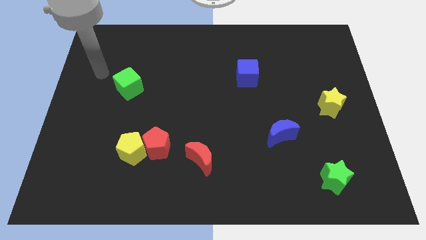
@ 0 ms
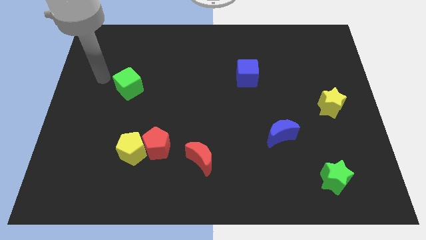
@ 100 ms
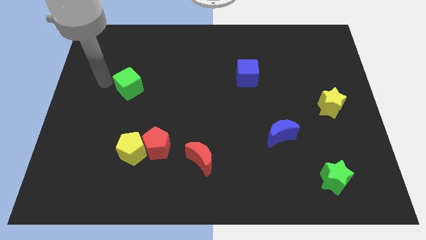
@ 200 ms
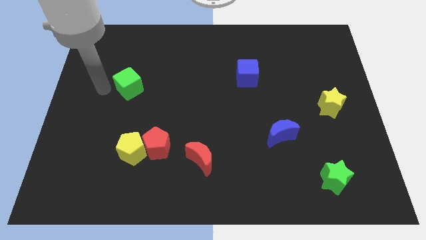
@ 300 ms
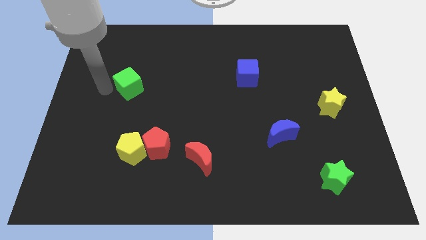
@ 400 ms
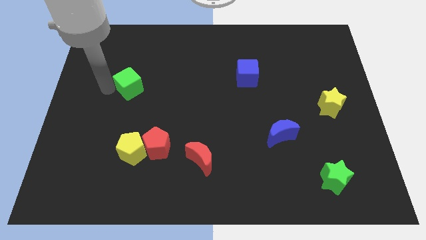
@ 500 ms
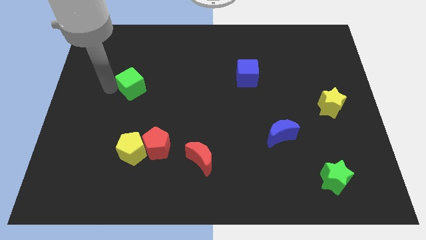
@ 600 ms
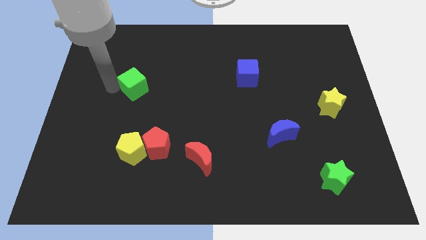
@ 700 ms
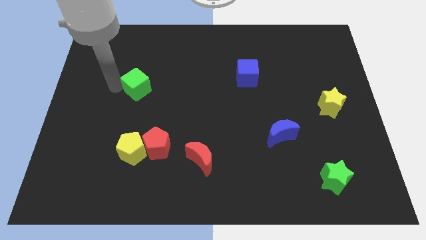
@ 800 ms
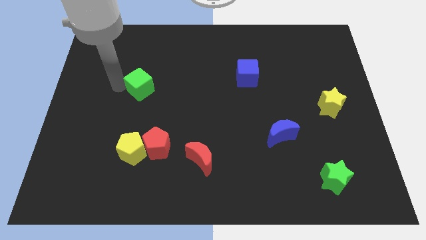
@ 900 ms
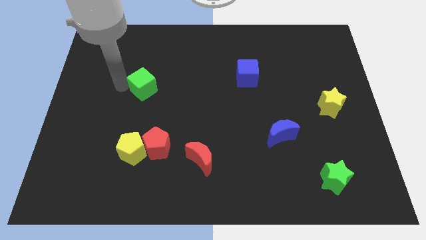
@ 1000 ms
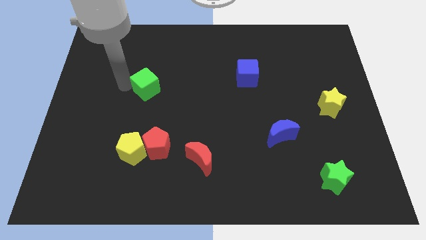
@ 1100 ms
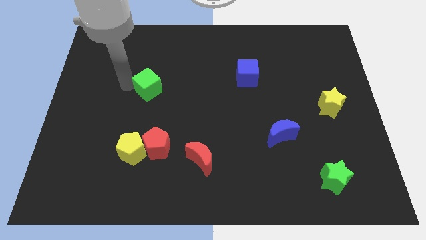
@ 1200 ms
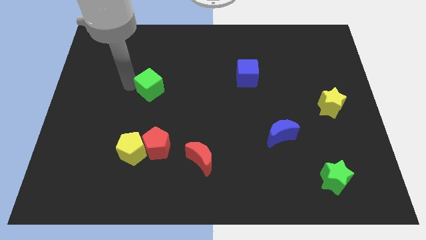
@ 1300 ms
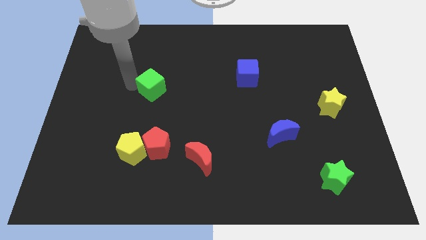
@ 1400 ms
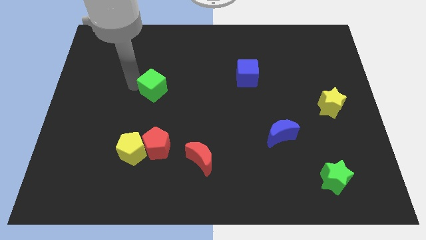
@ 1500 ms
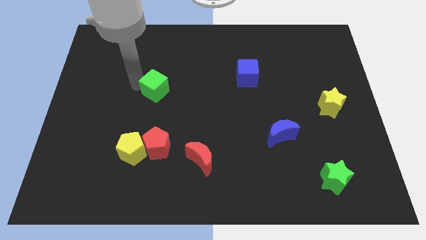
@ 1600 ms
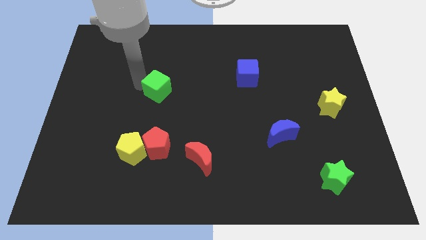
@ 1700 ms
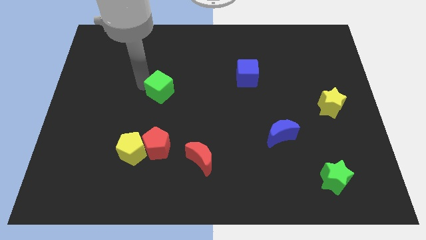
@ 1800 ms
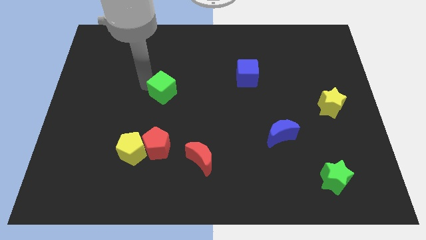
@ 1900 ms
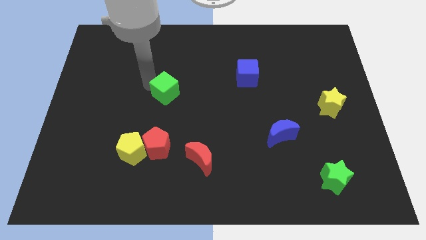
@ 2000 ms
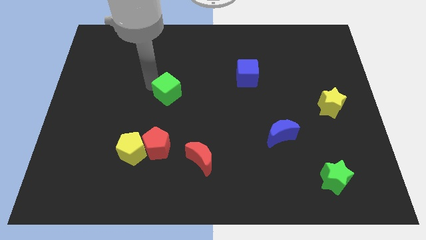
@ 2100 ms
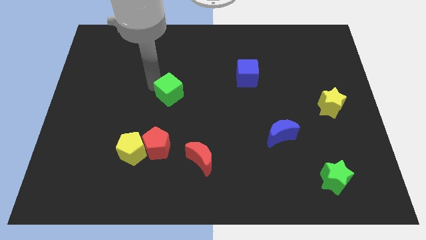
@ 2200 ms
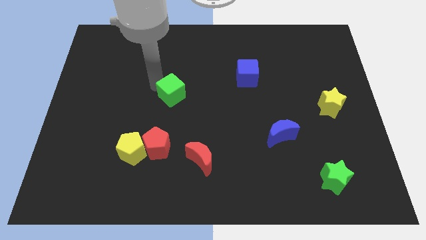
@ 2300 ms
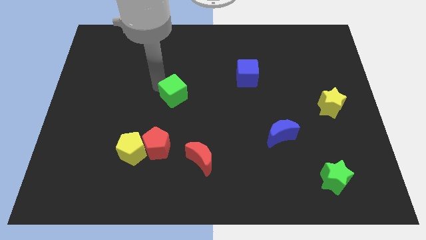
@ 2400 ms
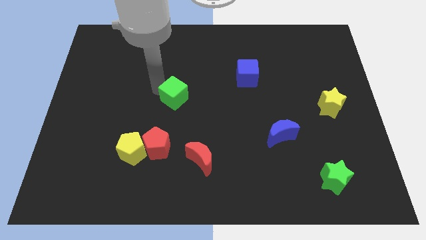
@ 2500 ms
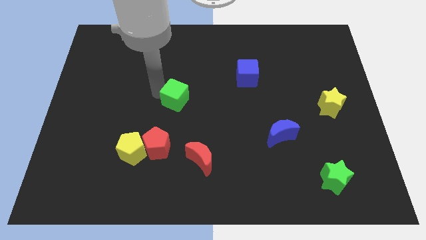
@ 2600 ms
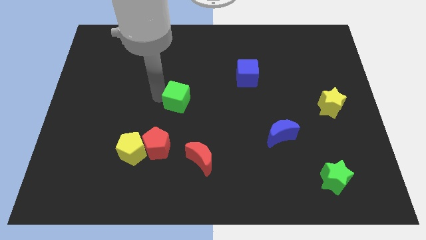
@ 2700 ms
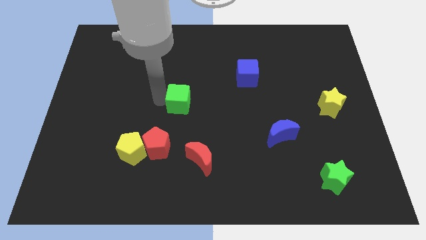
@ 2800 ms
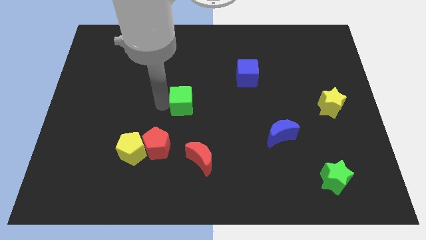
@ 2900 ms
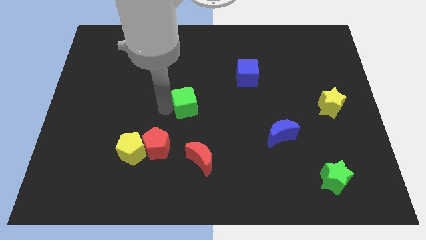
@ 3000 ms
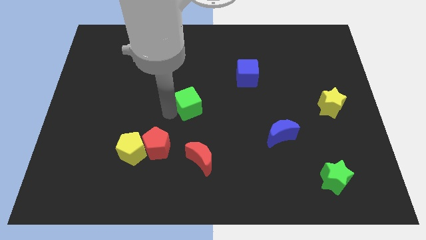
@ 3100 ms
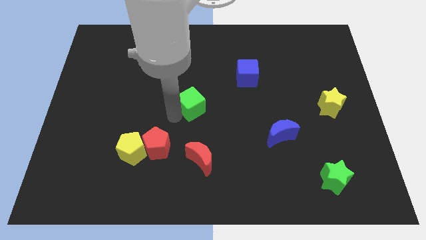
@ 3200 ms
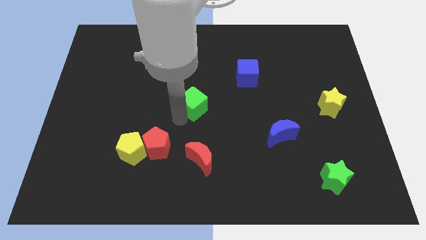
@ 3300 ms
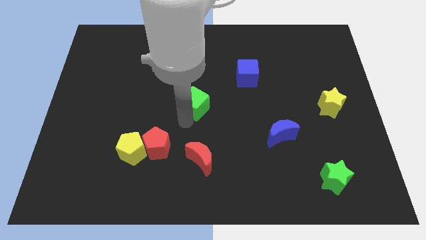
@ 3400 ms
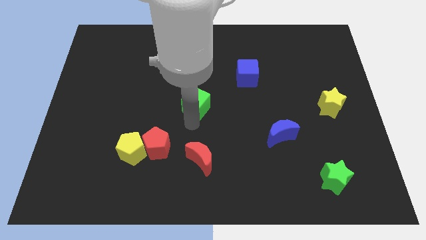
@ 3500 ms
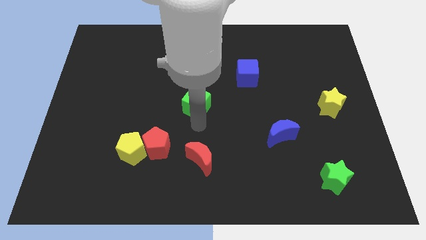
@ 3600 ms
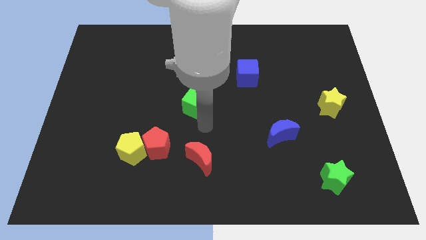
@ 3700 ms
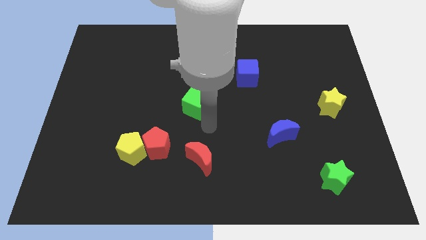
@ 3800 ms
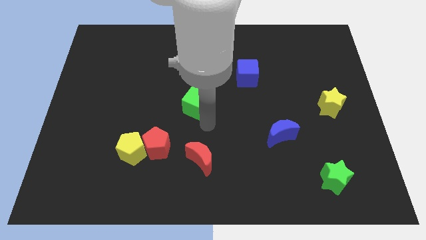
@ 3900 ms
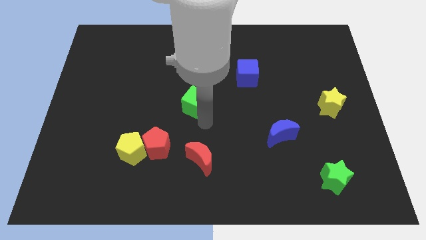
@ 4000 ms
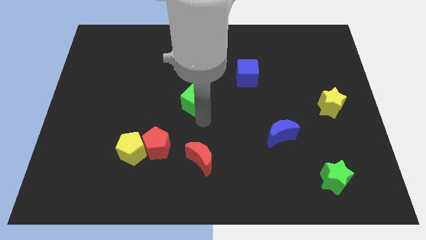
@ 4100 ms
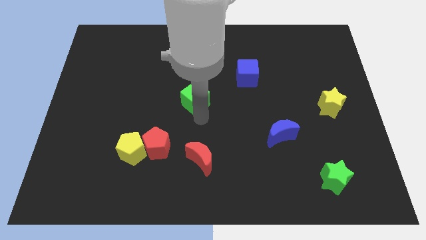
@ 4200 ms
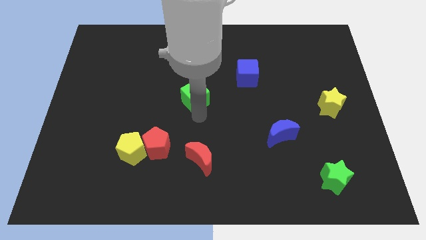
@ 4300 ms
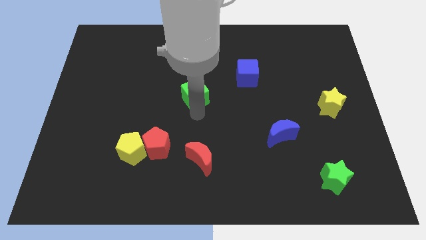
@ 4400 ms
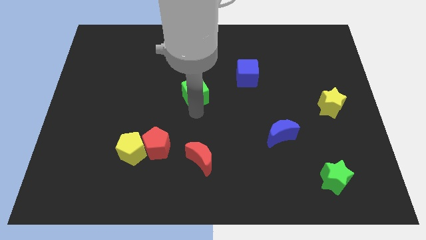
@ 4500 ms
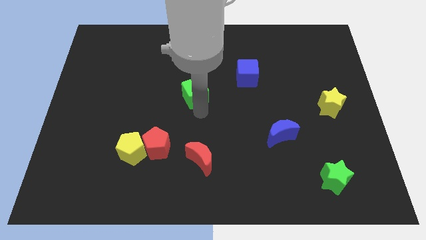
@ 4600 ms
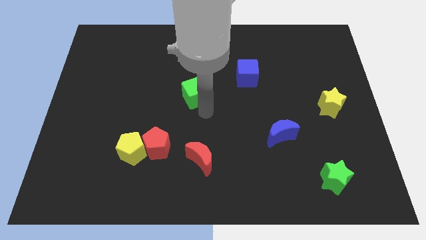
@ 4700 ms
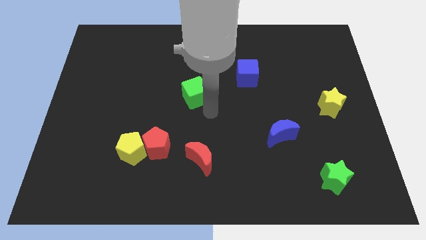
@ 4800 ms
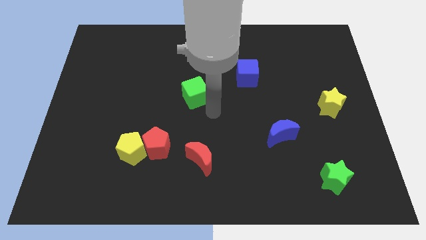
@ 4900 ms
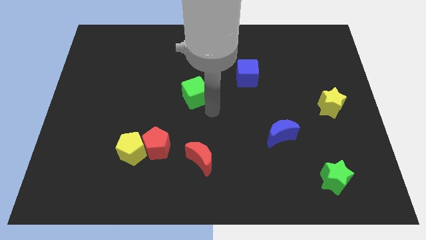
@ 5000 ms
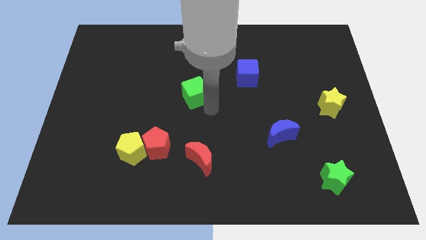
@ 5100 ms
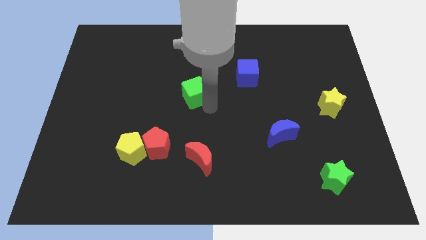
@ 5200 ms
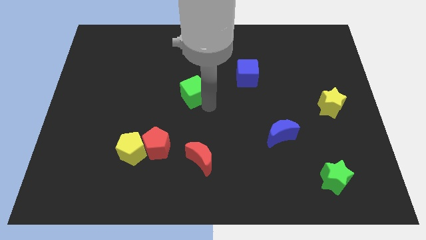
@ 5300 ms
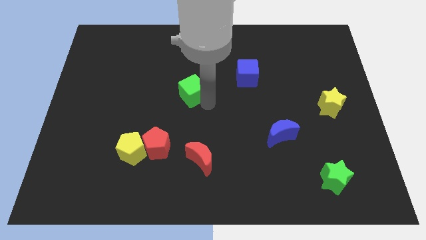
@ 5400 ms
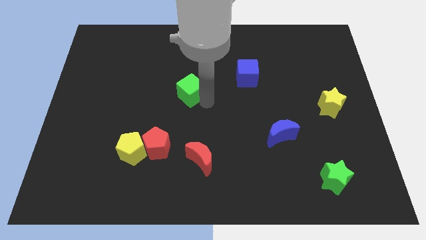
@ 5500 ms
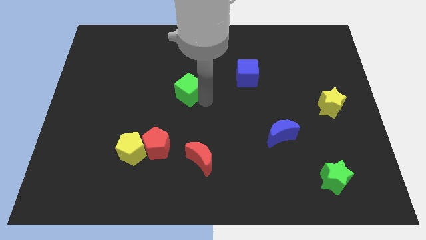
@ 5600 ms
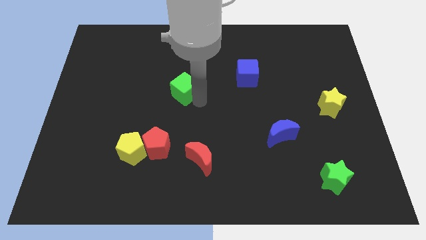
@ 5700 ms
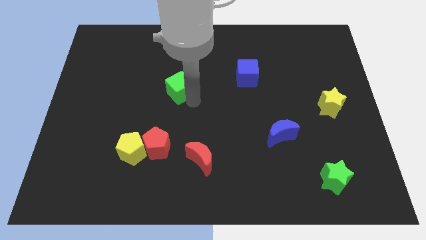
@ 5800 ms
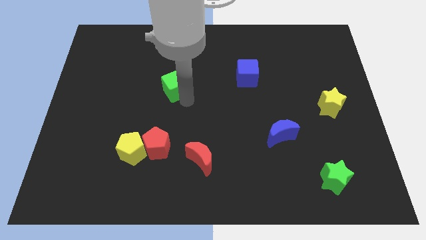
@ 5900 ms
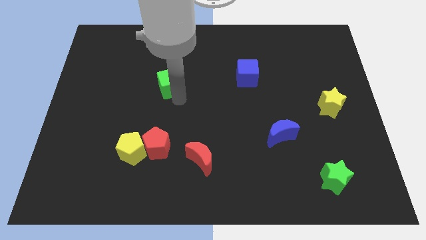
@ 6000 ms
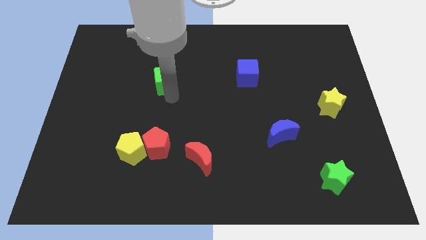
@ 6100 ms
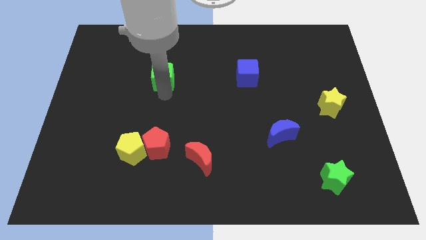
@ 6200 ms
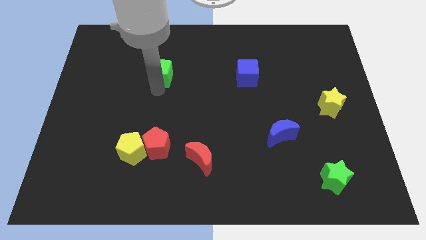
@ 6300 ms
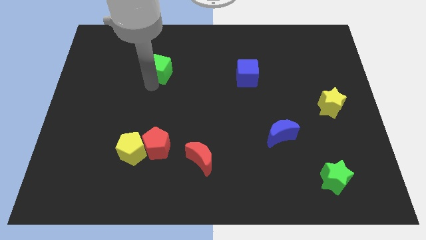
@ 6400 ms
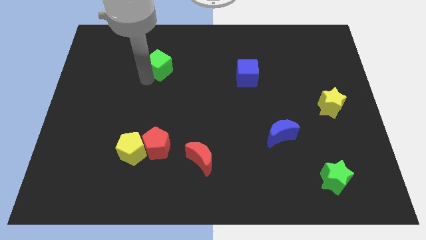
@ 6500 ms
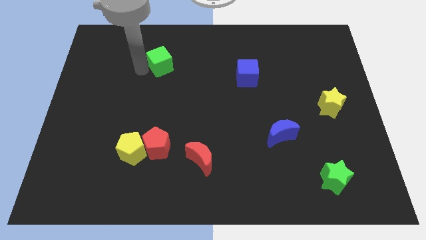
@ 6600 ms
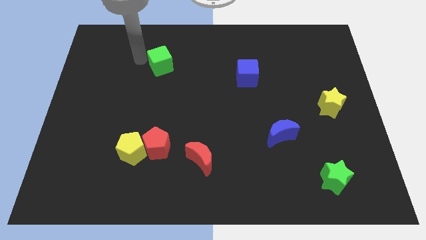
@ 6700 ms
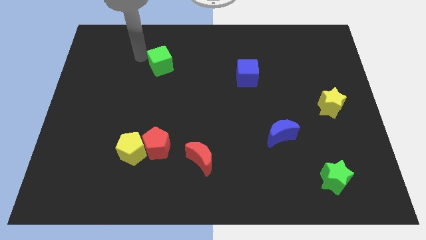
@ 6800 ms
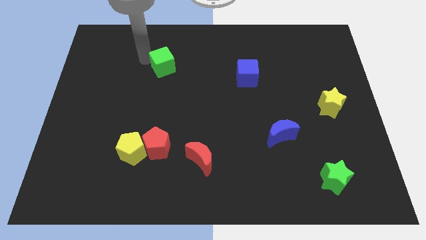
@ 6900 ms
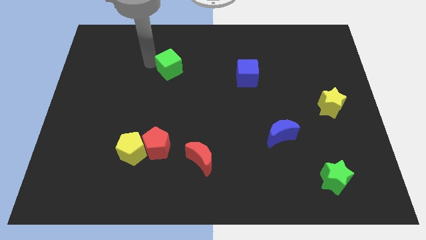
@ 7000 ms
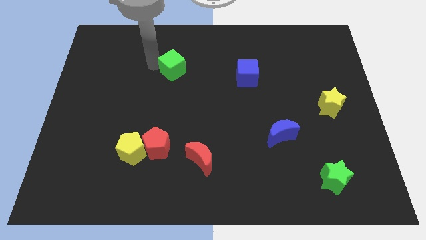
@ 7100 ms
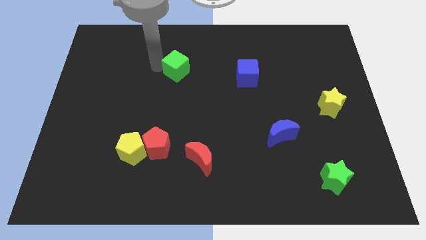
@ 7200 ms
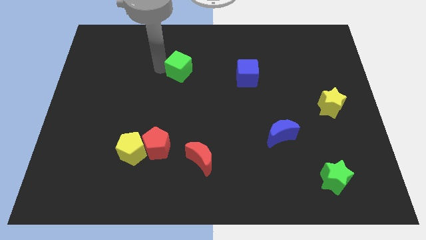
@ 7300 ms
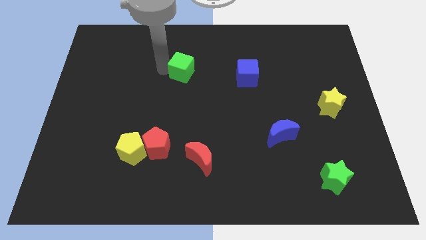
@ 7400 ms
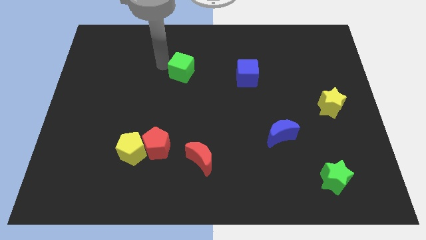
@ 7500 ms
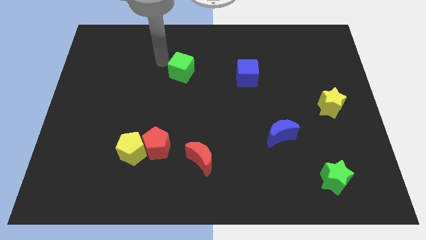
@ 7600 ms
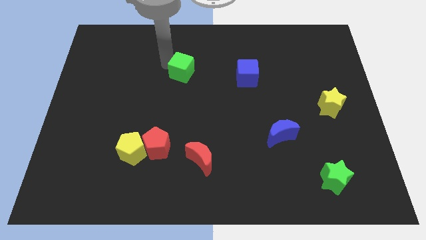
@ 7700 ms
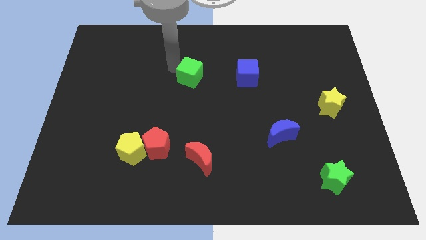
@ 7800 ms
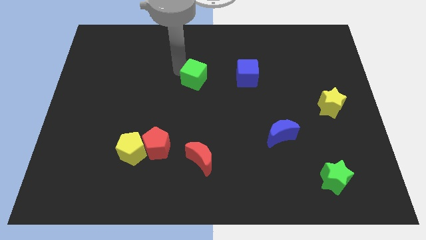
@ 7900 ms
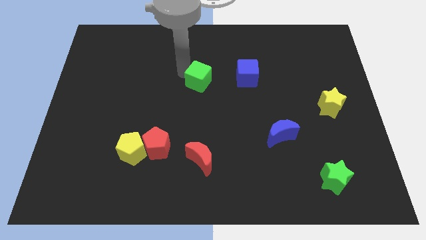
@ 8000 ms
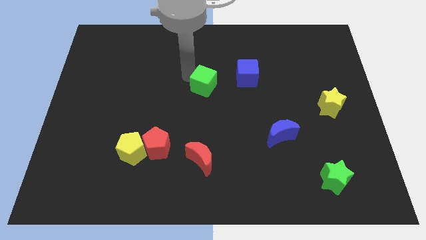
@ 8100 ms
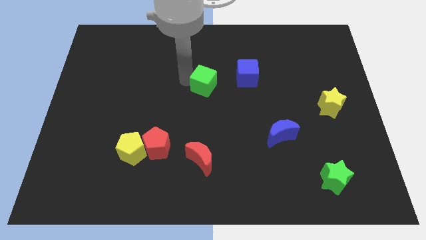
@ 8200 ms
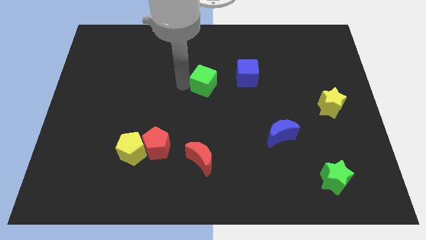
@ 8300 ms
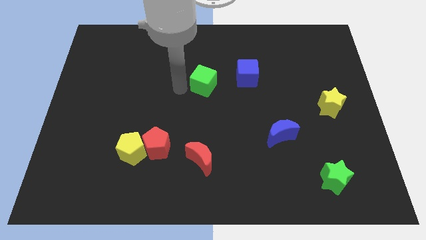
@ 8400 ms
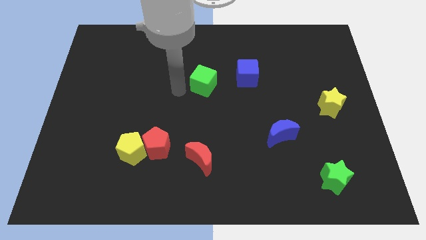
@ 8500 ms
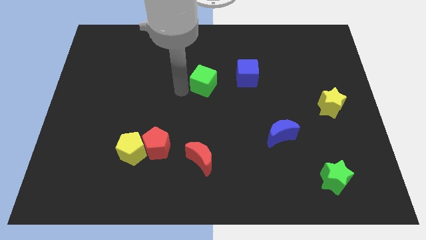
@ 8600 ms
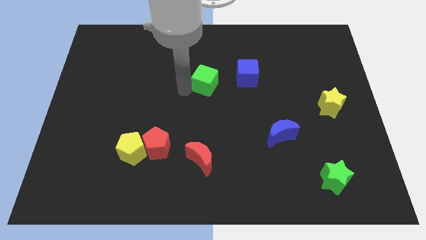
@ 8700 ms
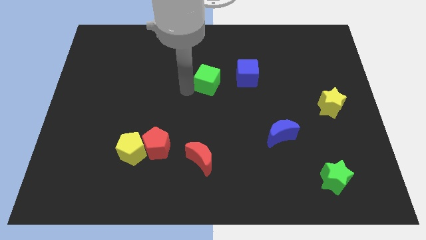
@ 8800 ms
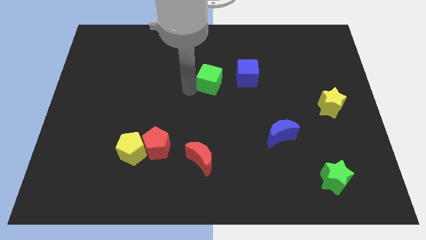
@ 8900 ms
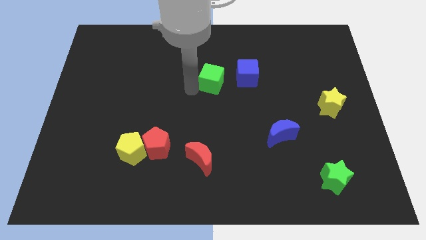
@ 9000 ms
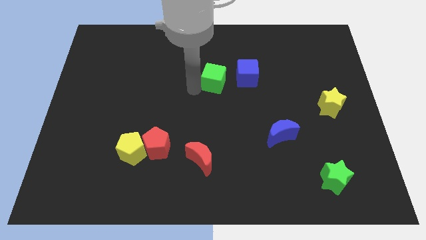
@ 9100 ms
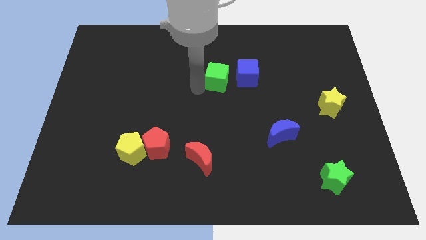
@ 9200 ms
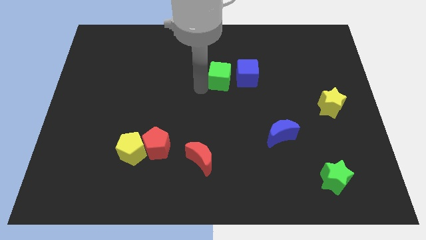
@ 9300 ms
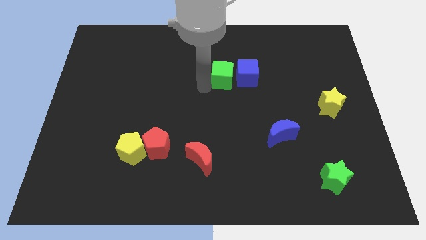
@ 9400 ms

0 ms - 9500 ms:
move the green cube to the blue cube
